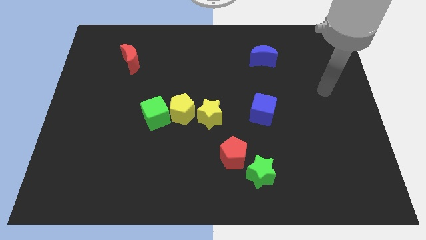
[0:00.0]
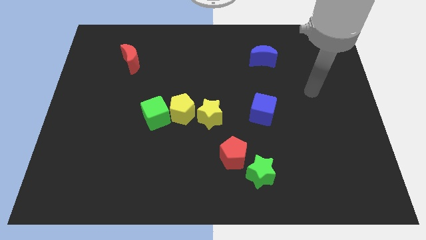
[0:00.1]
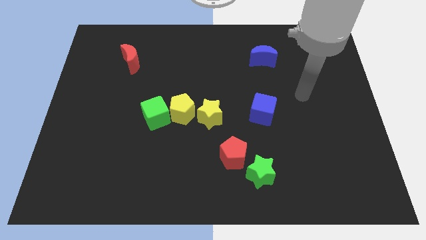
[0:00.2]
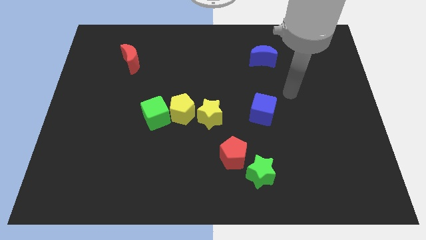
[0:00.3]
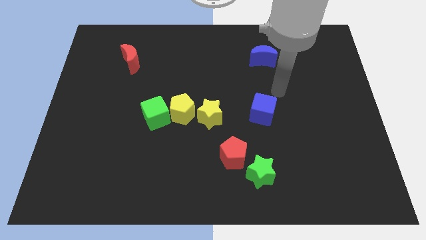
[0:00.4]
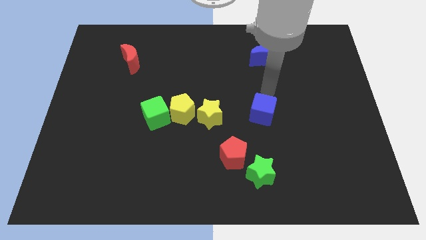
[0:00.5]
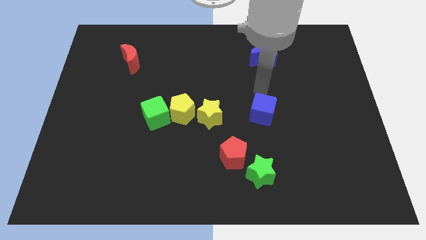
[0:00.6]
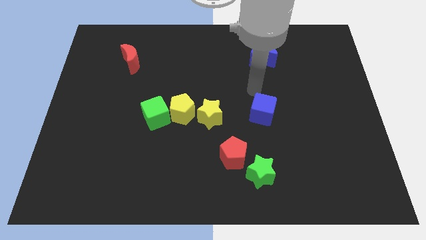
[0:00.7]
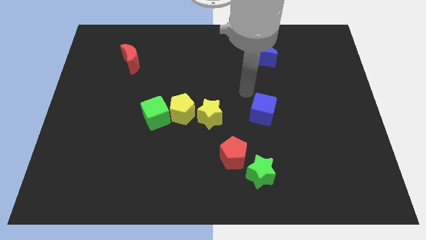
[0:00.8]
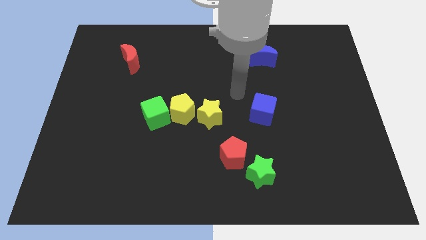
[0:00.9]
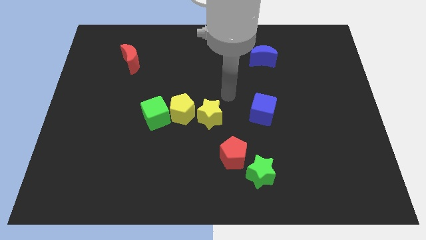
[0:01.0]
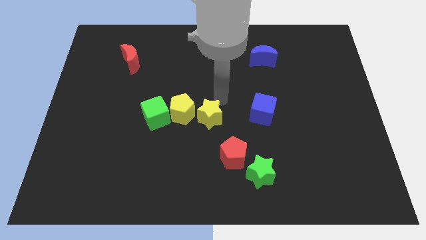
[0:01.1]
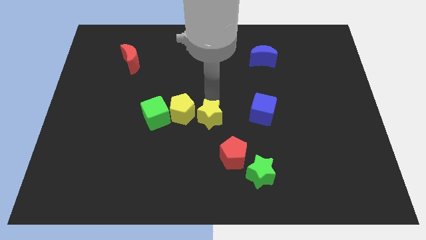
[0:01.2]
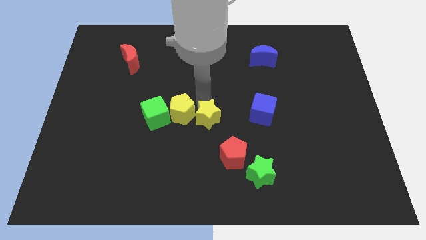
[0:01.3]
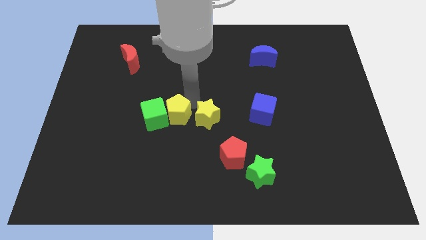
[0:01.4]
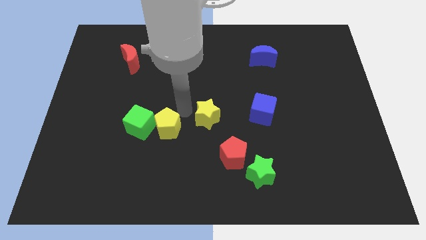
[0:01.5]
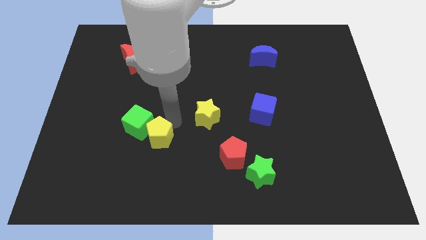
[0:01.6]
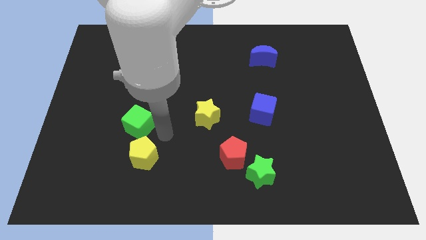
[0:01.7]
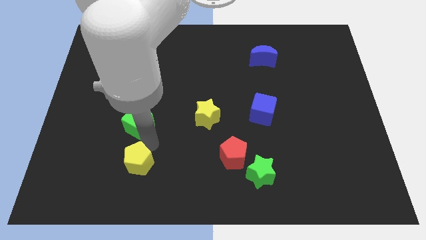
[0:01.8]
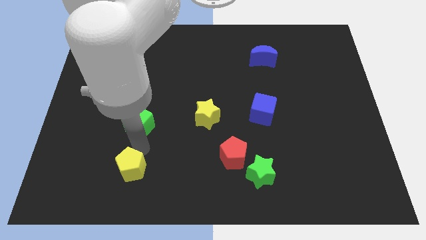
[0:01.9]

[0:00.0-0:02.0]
separate the green cube from the yellow pentagon

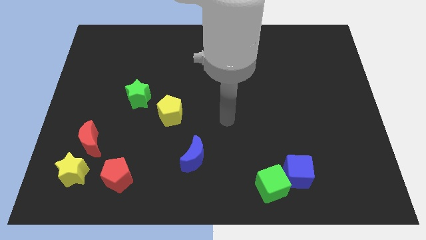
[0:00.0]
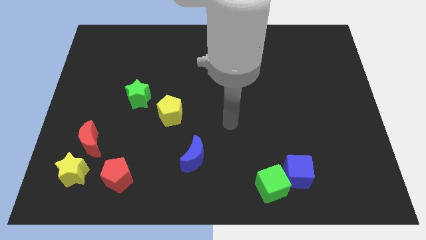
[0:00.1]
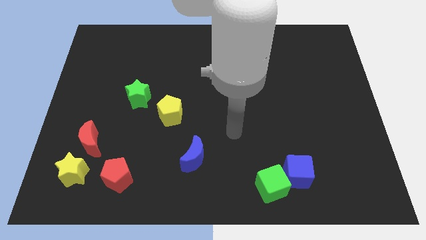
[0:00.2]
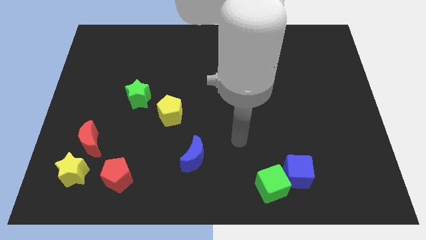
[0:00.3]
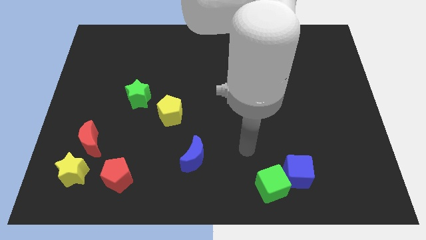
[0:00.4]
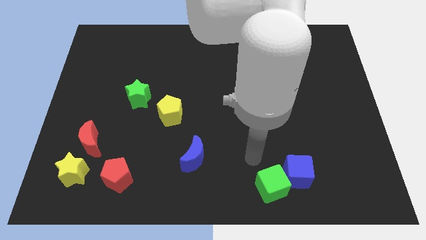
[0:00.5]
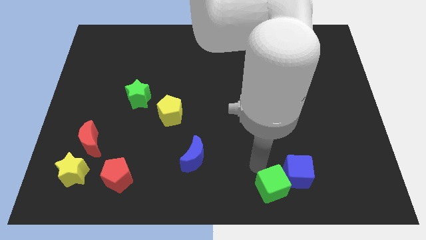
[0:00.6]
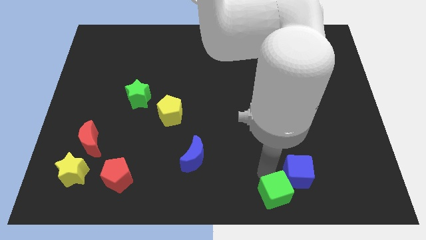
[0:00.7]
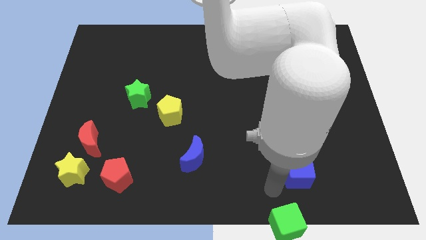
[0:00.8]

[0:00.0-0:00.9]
separate the blue cube from the green cube

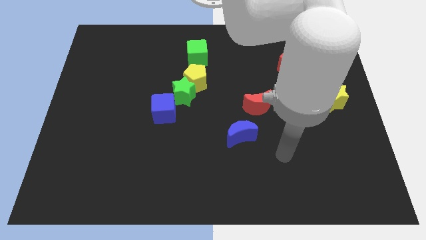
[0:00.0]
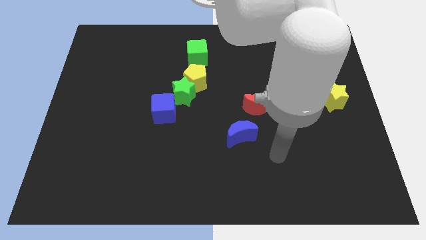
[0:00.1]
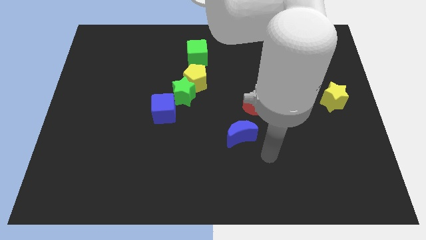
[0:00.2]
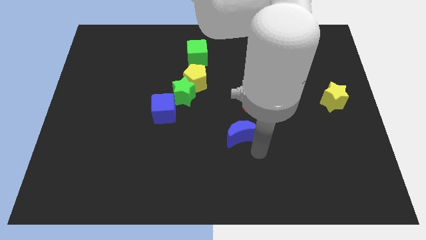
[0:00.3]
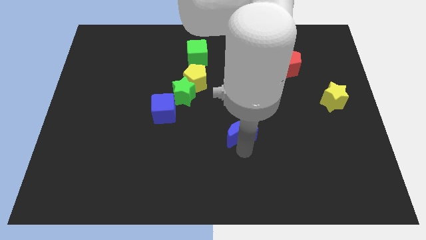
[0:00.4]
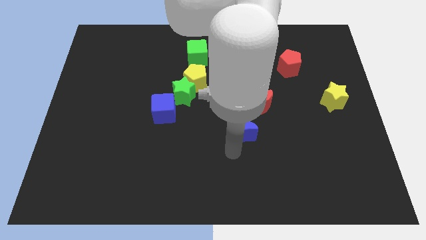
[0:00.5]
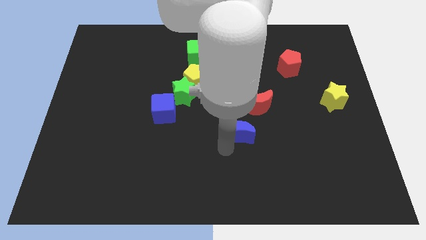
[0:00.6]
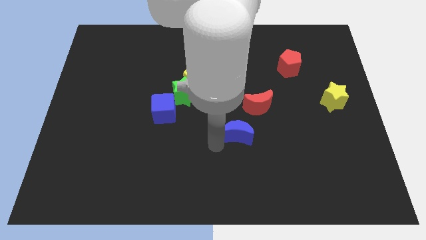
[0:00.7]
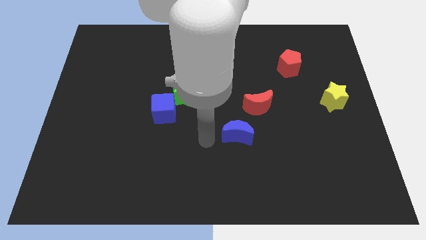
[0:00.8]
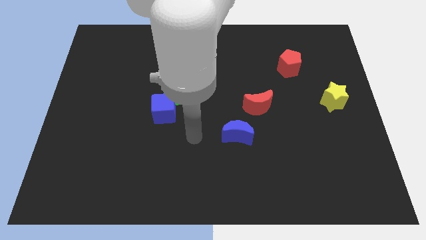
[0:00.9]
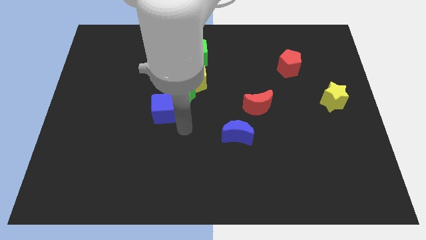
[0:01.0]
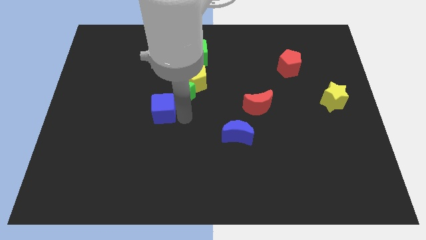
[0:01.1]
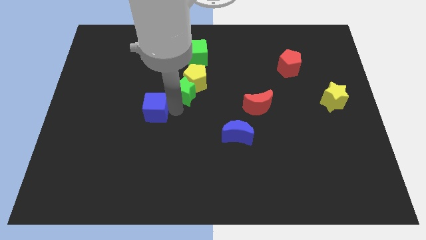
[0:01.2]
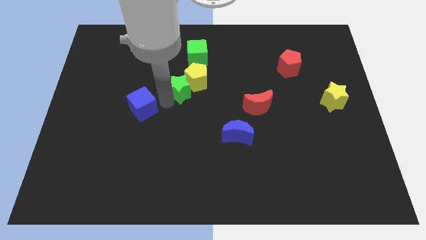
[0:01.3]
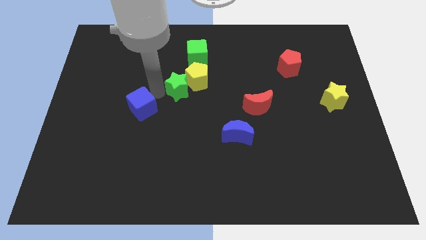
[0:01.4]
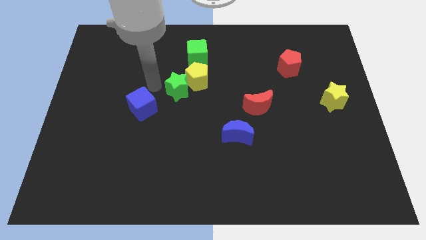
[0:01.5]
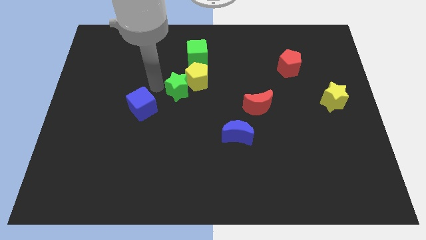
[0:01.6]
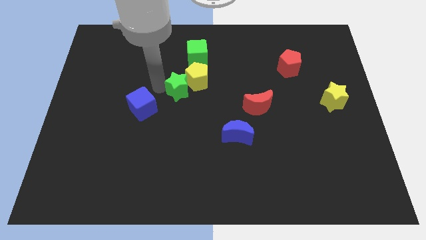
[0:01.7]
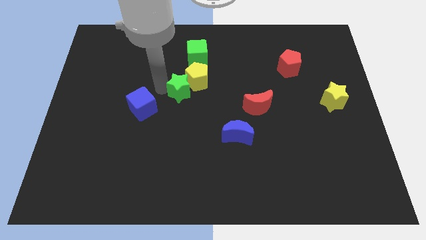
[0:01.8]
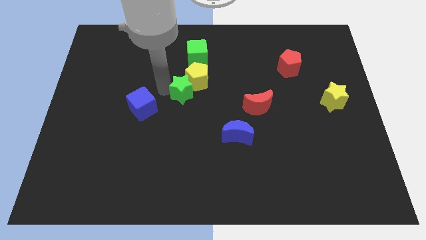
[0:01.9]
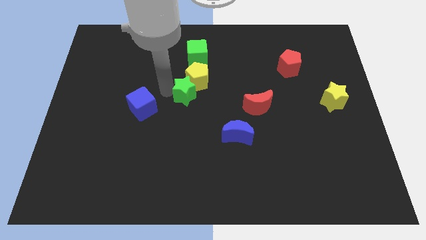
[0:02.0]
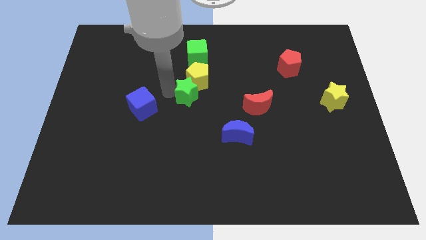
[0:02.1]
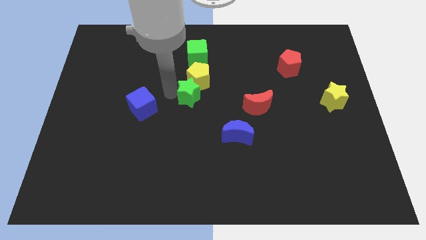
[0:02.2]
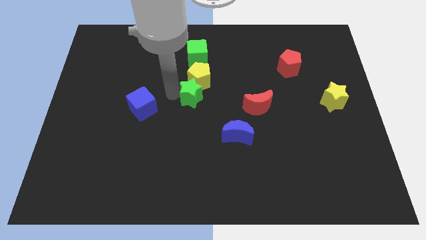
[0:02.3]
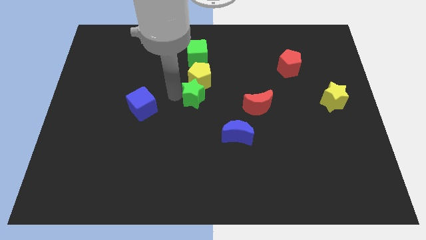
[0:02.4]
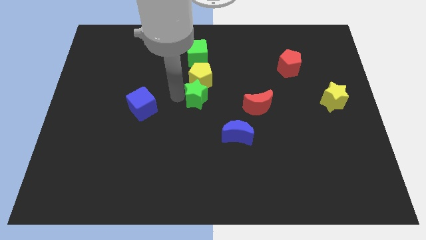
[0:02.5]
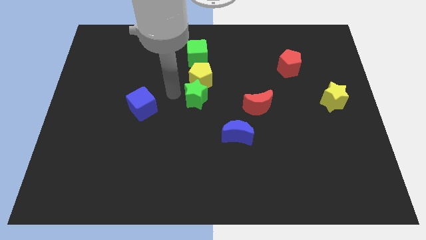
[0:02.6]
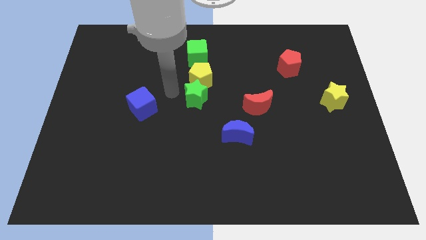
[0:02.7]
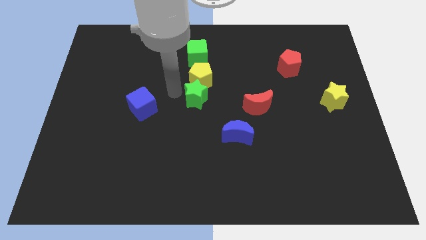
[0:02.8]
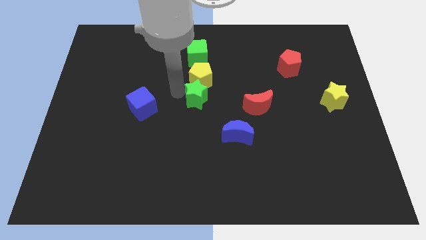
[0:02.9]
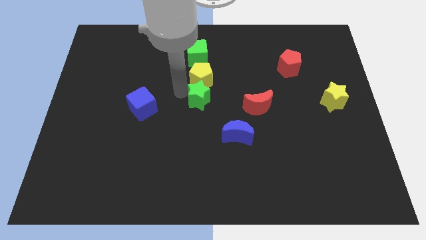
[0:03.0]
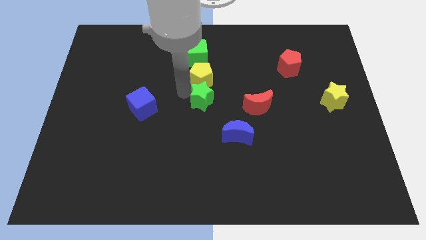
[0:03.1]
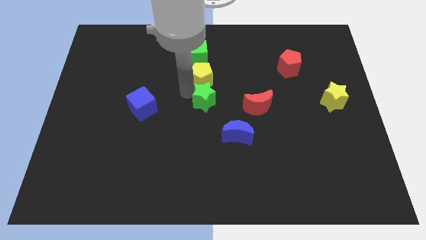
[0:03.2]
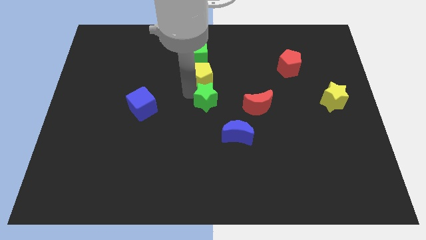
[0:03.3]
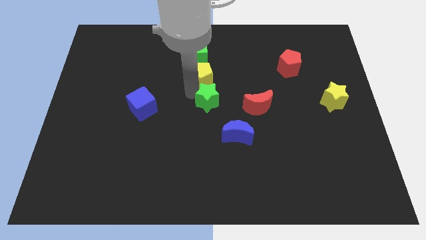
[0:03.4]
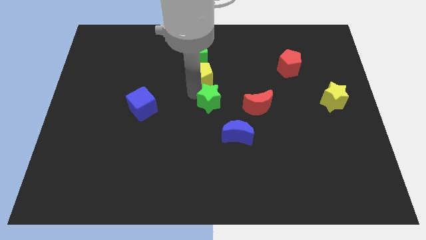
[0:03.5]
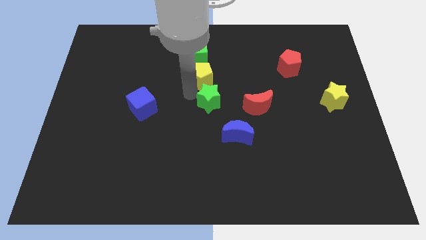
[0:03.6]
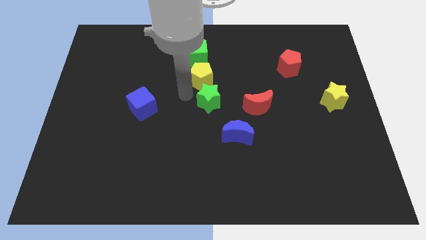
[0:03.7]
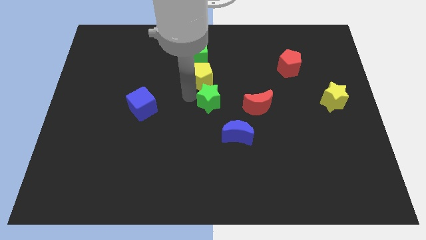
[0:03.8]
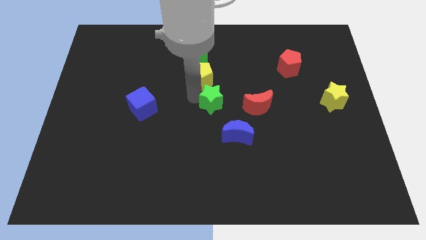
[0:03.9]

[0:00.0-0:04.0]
move the green star away from the yellow pentagon and blue cube

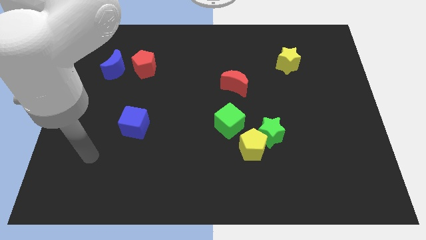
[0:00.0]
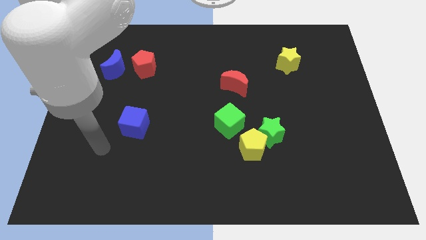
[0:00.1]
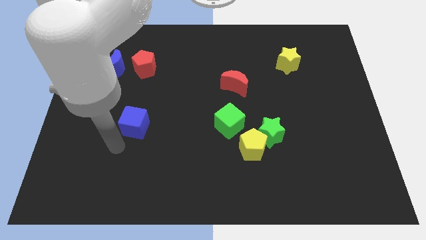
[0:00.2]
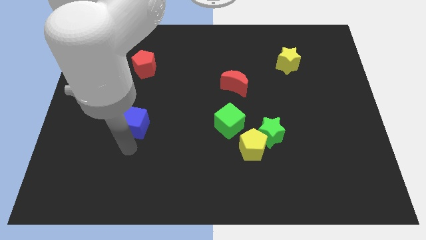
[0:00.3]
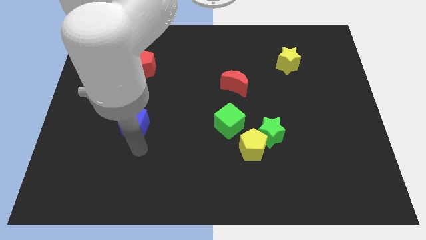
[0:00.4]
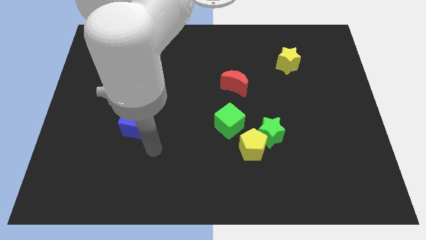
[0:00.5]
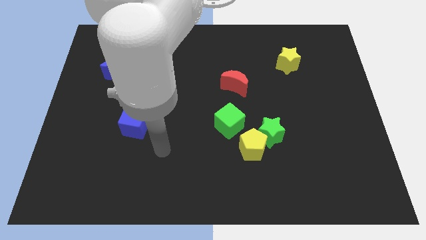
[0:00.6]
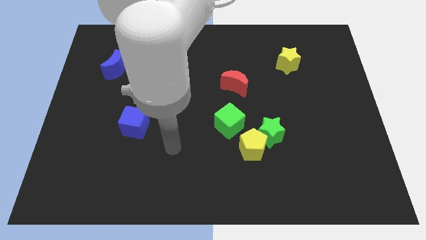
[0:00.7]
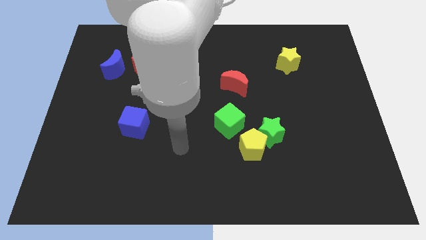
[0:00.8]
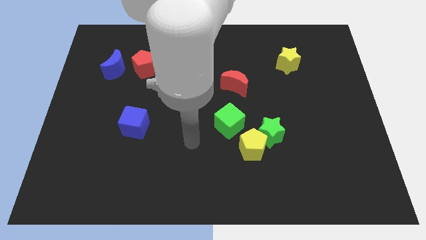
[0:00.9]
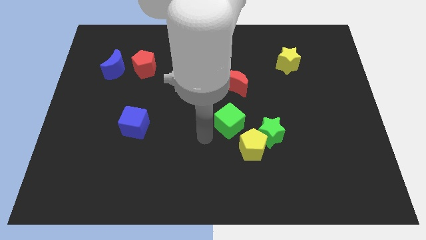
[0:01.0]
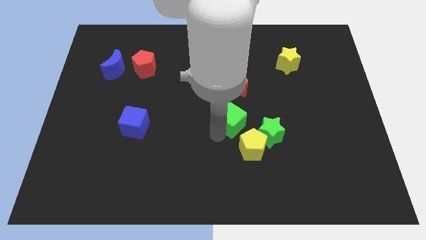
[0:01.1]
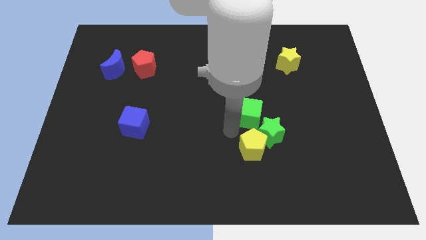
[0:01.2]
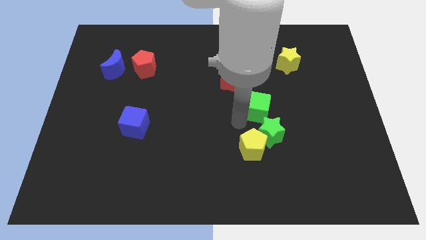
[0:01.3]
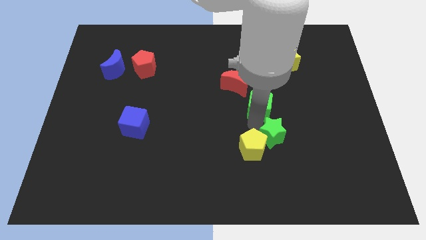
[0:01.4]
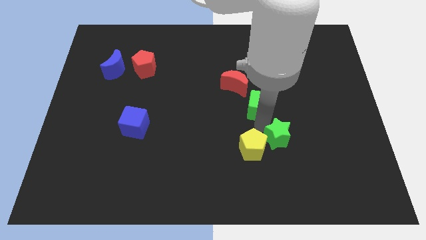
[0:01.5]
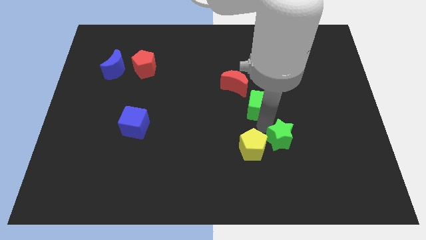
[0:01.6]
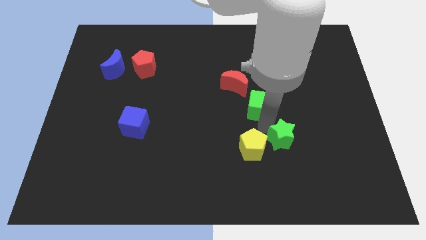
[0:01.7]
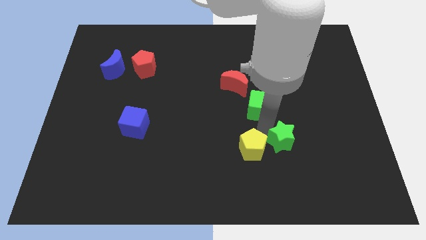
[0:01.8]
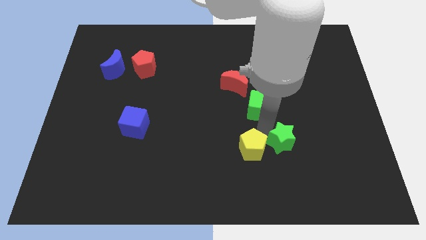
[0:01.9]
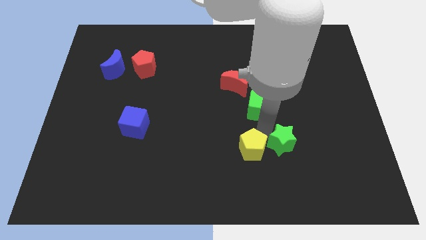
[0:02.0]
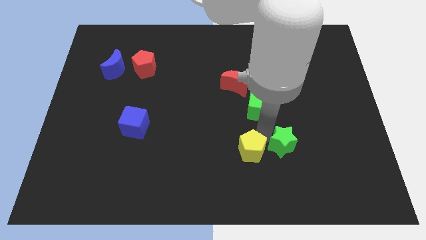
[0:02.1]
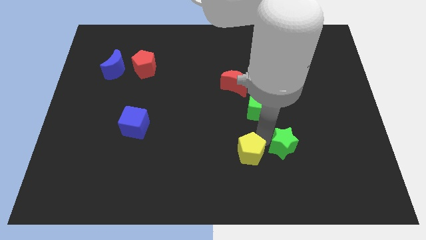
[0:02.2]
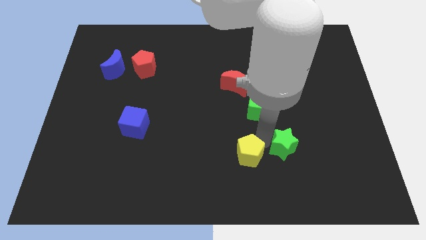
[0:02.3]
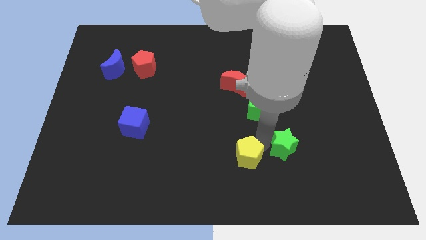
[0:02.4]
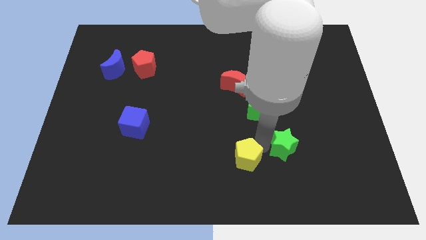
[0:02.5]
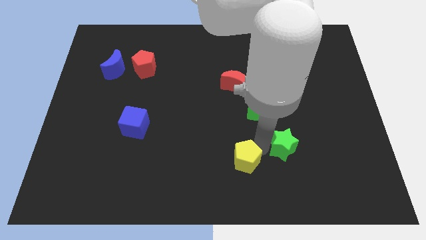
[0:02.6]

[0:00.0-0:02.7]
pull the yellow pentagon apart from the green star and green cube
